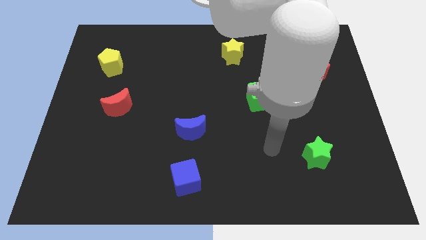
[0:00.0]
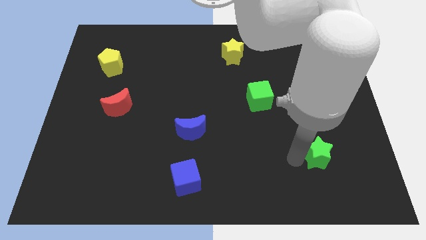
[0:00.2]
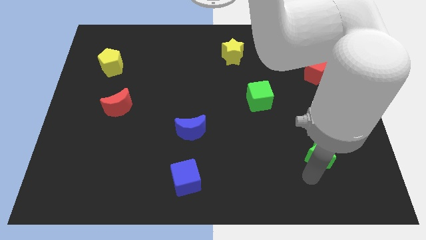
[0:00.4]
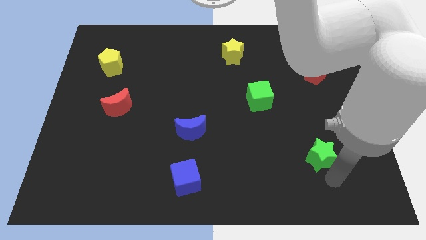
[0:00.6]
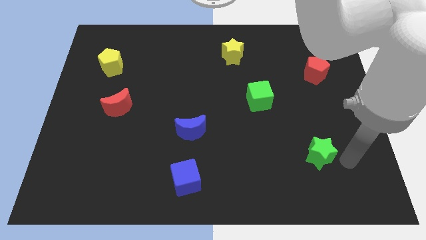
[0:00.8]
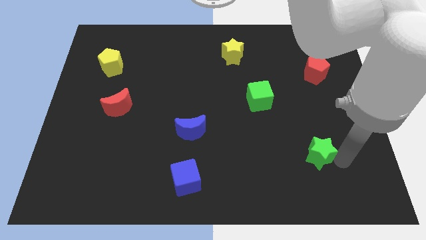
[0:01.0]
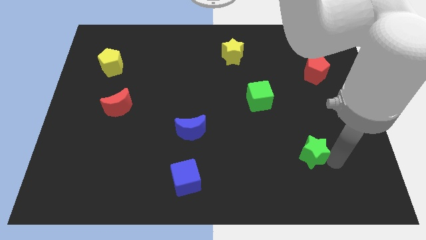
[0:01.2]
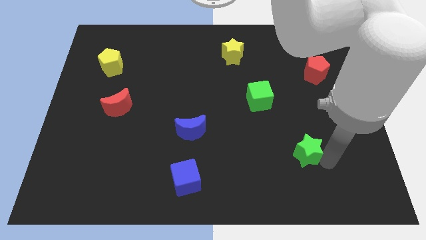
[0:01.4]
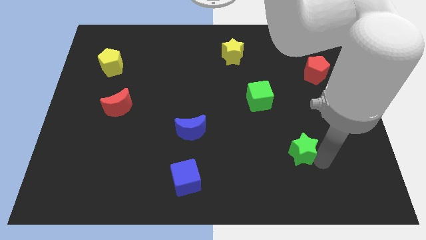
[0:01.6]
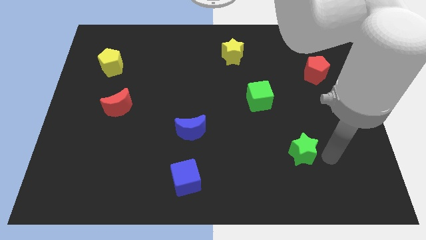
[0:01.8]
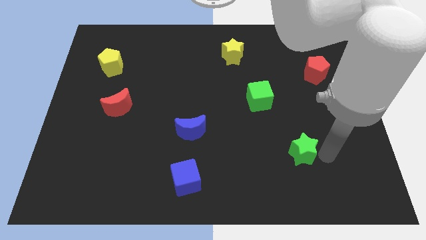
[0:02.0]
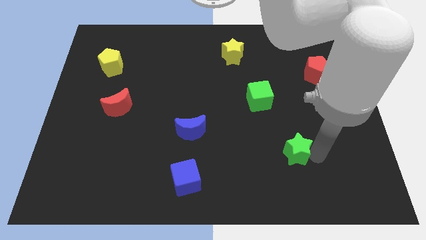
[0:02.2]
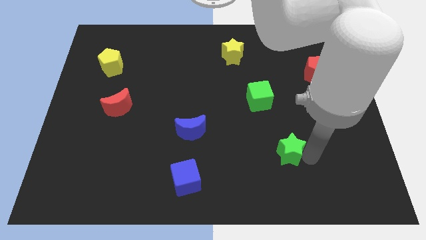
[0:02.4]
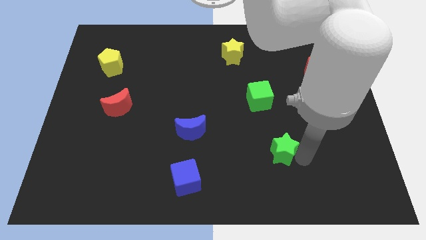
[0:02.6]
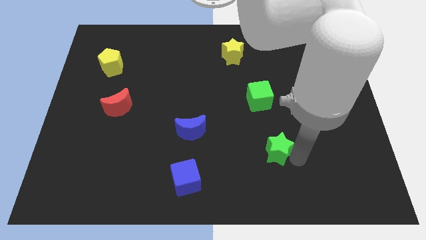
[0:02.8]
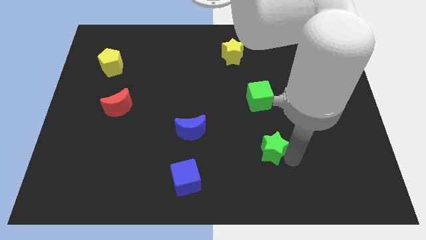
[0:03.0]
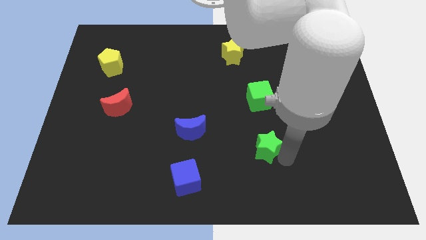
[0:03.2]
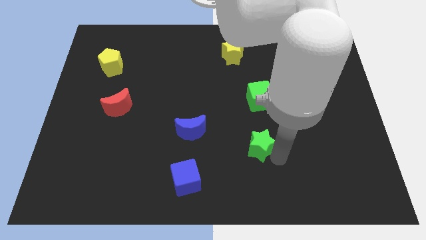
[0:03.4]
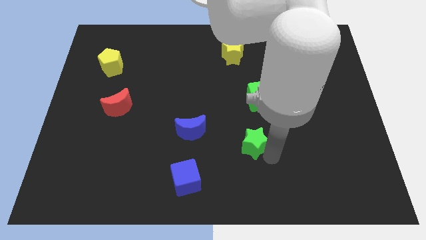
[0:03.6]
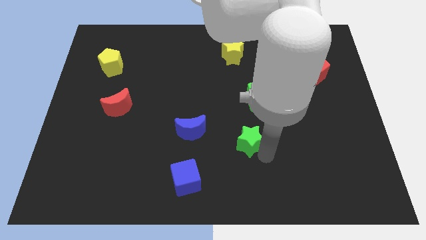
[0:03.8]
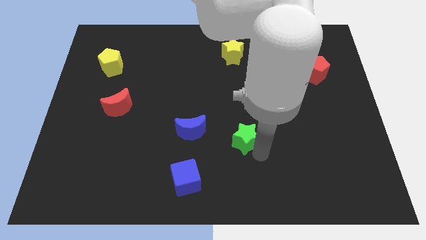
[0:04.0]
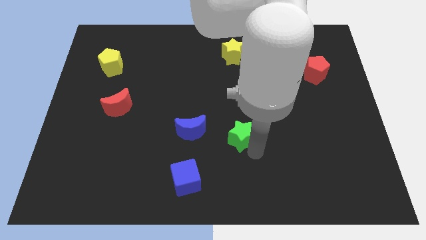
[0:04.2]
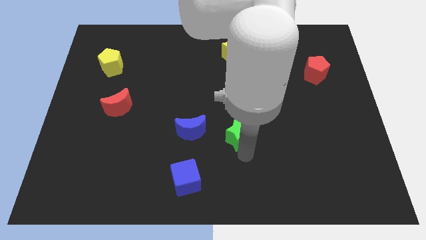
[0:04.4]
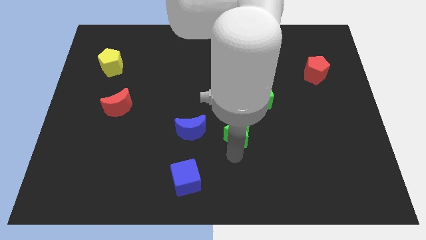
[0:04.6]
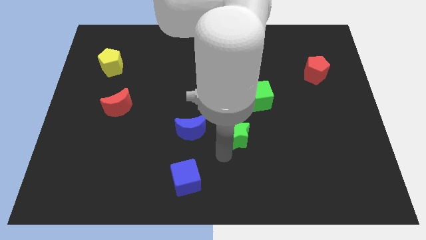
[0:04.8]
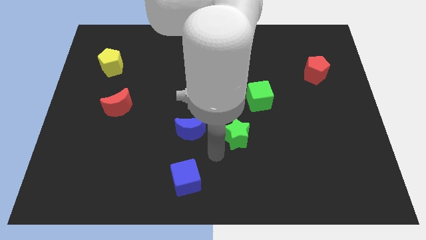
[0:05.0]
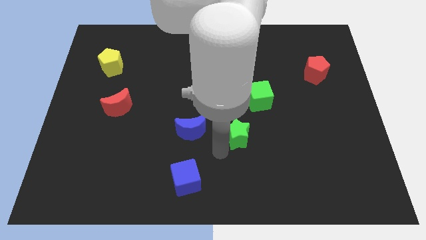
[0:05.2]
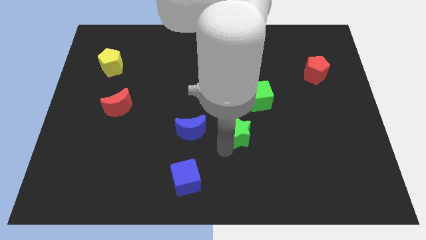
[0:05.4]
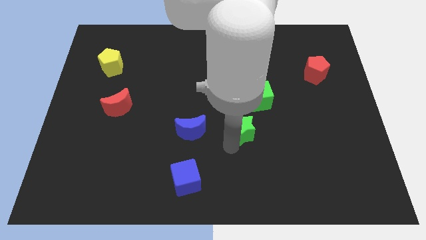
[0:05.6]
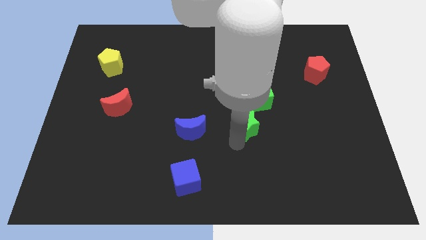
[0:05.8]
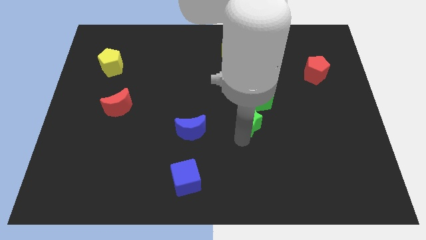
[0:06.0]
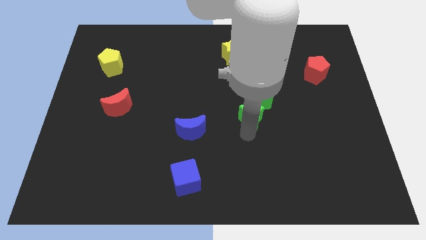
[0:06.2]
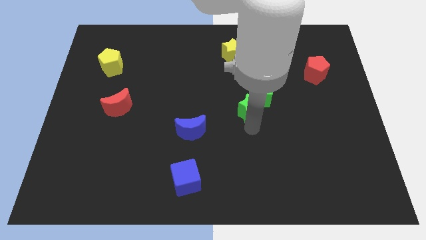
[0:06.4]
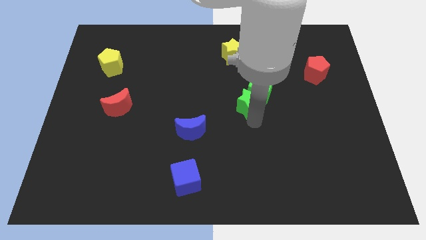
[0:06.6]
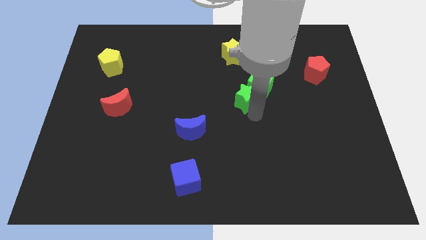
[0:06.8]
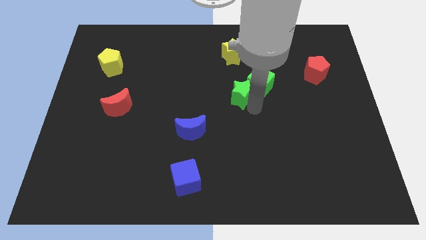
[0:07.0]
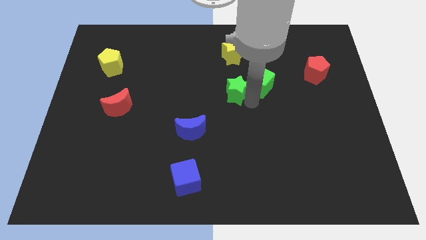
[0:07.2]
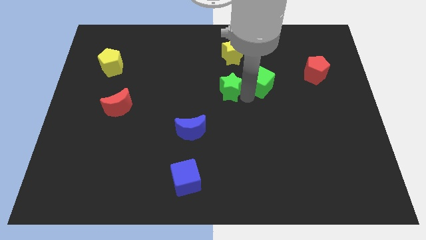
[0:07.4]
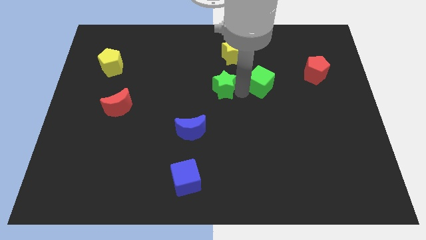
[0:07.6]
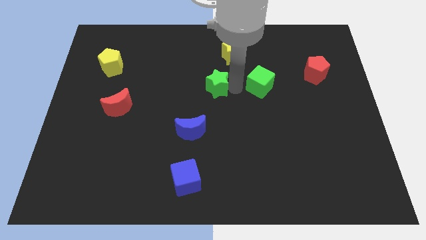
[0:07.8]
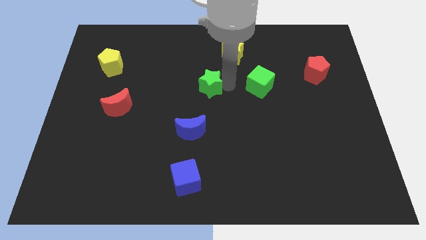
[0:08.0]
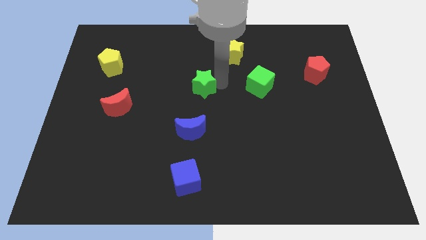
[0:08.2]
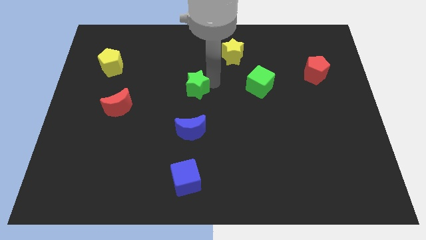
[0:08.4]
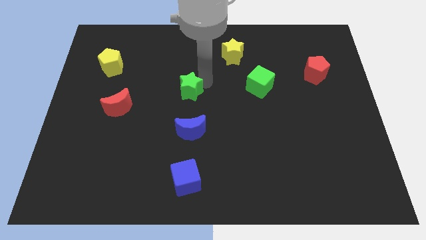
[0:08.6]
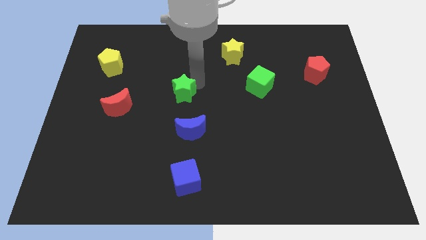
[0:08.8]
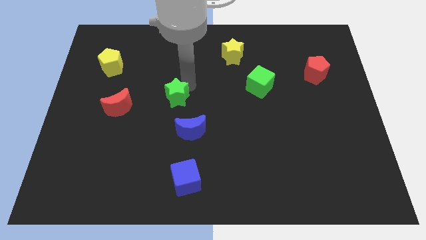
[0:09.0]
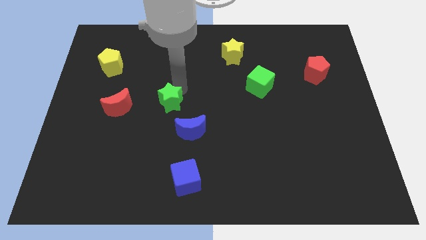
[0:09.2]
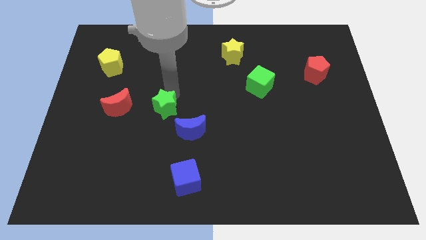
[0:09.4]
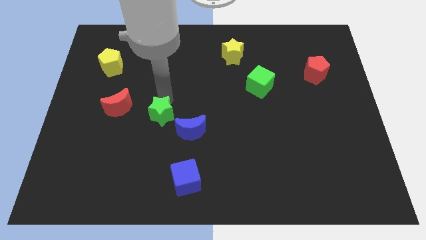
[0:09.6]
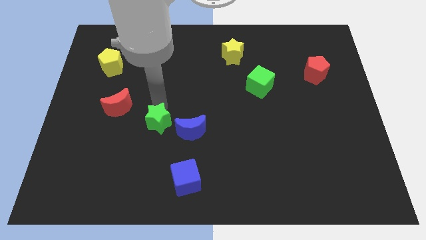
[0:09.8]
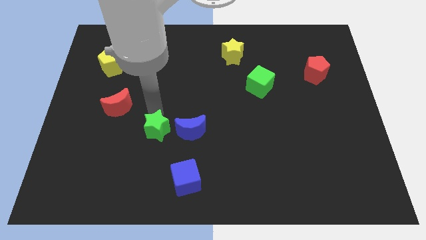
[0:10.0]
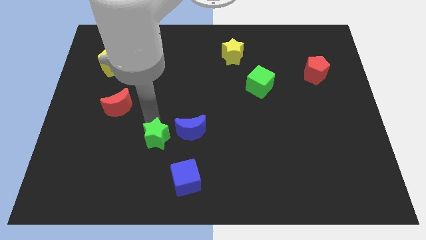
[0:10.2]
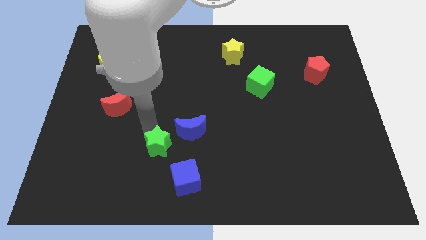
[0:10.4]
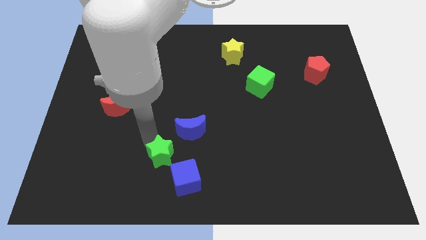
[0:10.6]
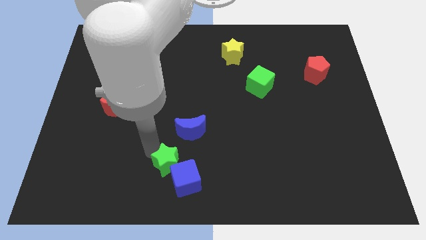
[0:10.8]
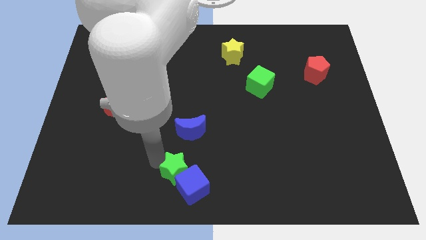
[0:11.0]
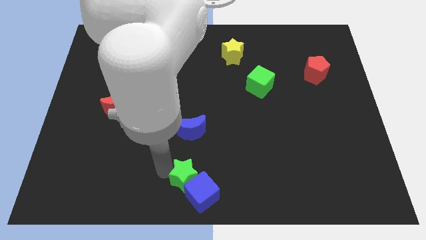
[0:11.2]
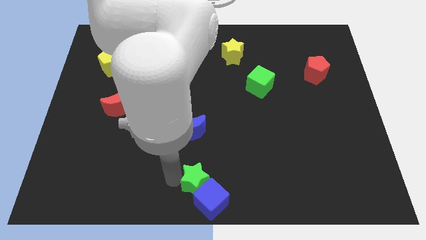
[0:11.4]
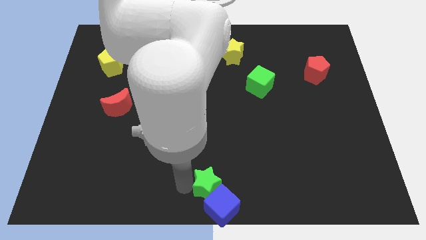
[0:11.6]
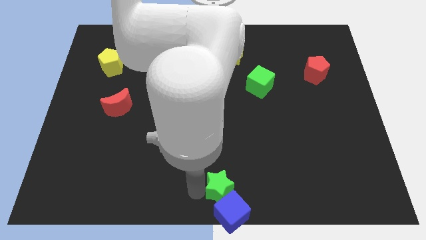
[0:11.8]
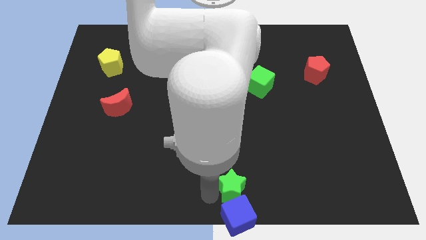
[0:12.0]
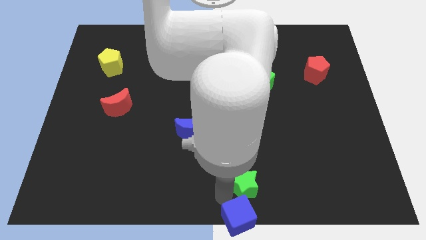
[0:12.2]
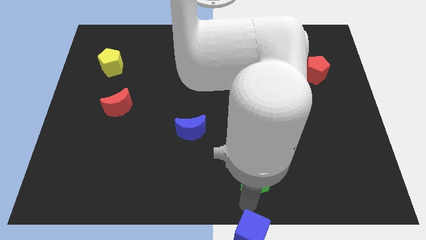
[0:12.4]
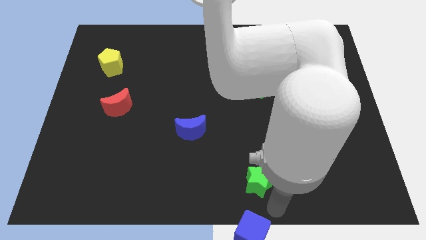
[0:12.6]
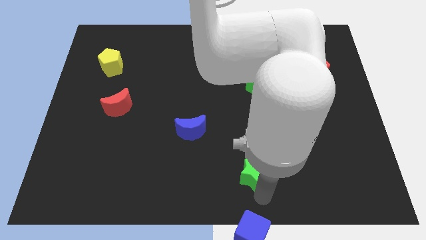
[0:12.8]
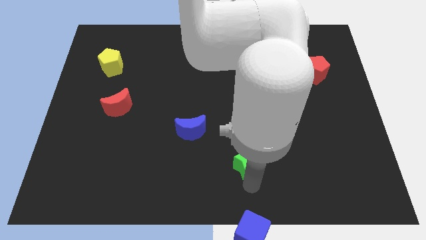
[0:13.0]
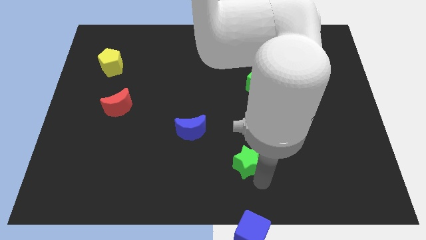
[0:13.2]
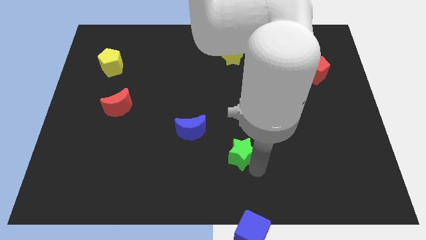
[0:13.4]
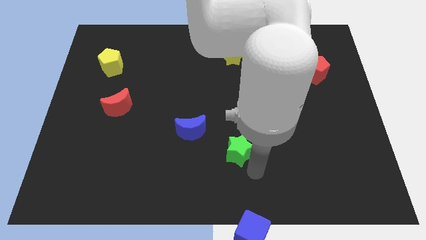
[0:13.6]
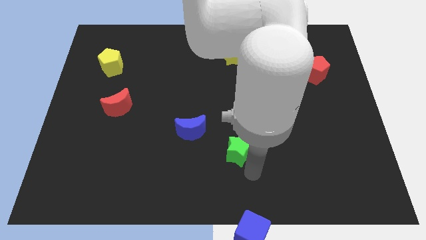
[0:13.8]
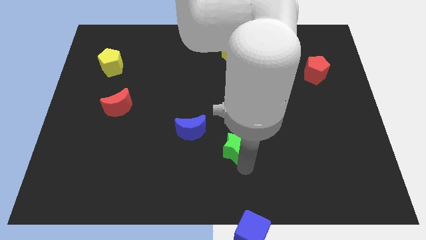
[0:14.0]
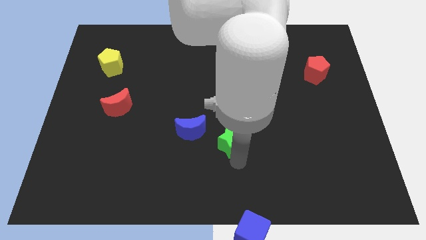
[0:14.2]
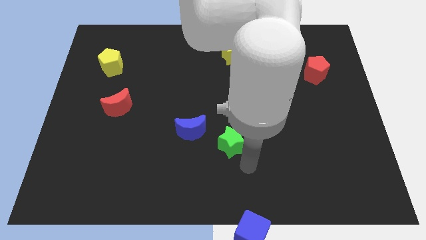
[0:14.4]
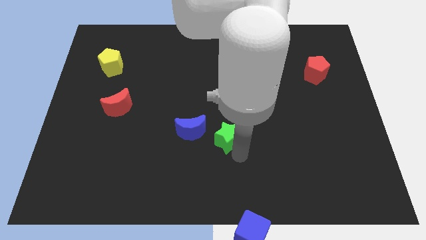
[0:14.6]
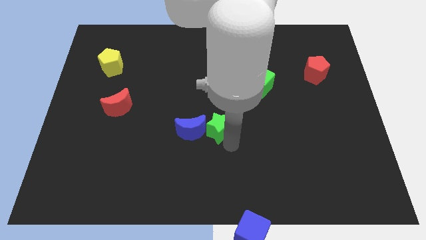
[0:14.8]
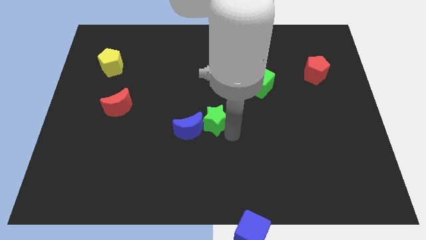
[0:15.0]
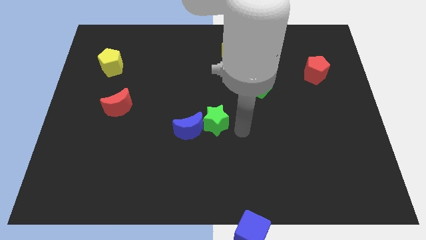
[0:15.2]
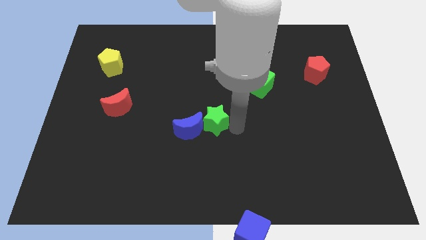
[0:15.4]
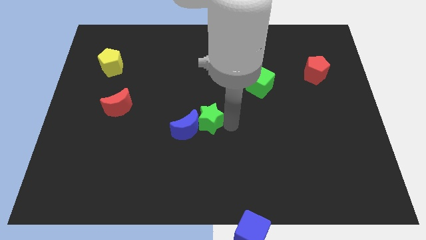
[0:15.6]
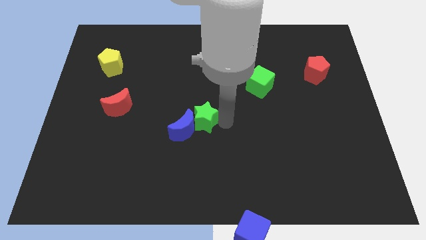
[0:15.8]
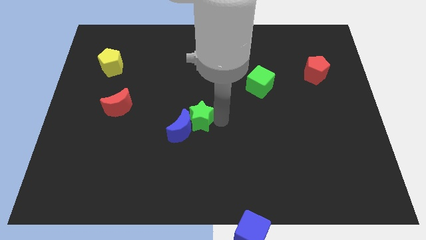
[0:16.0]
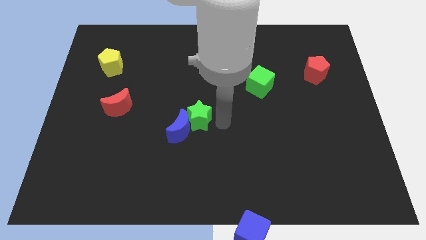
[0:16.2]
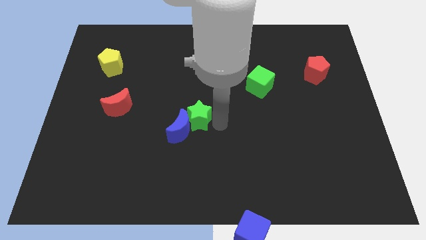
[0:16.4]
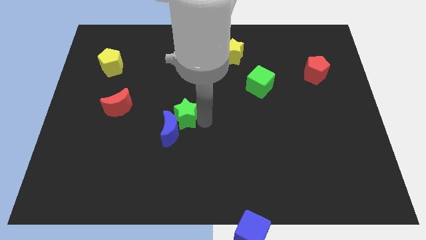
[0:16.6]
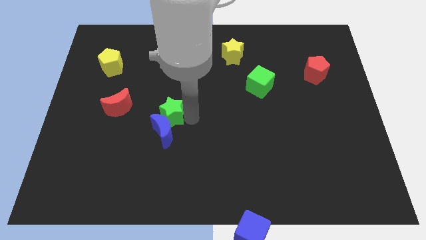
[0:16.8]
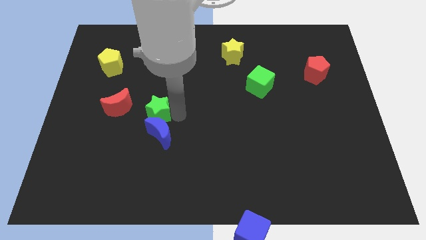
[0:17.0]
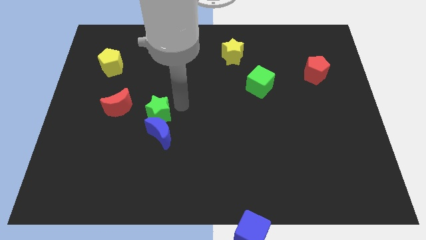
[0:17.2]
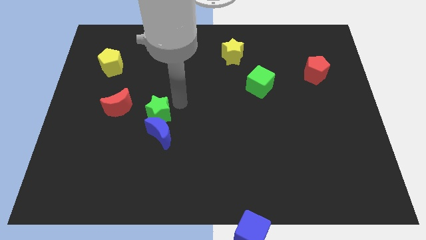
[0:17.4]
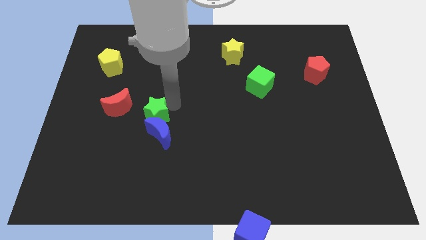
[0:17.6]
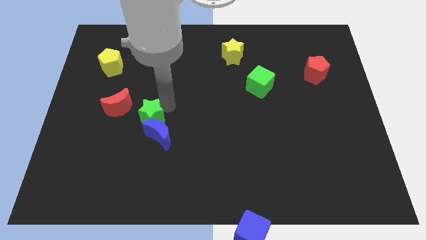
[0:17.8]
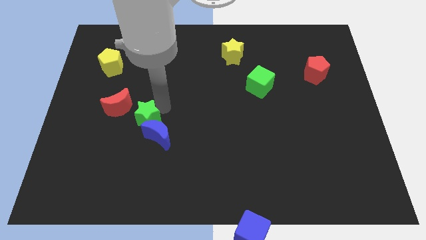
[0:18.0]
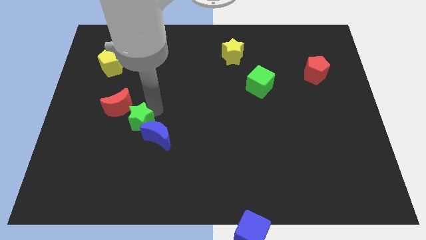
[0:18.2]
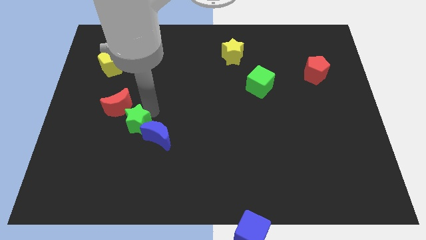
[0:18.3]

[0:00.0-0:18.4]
move the green star to the bottom side of the red moon
